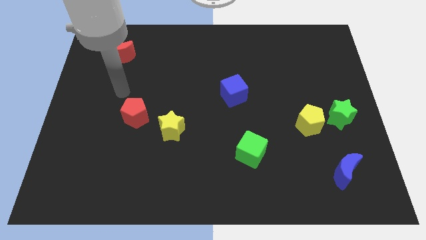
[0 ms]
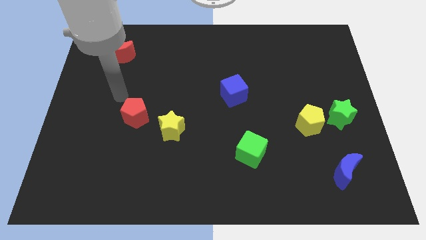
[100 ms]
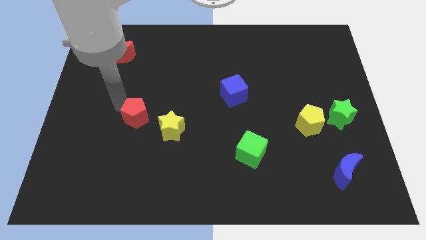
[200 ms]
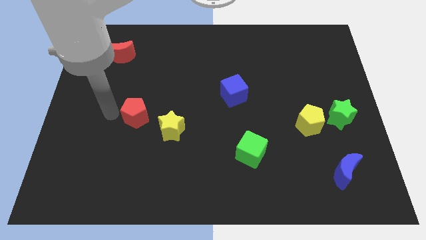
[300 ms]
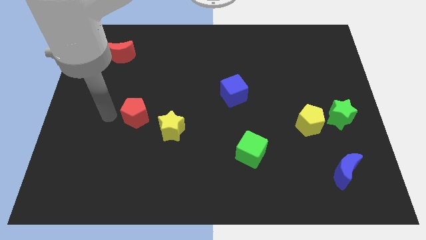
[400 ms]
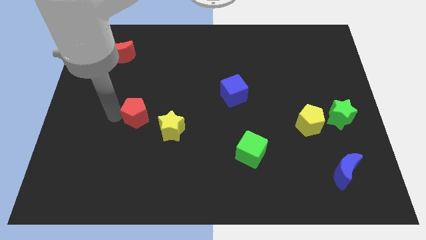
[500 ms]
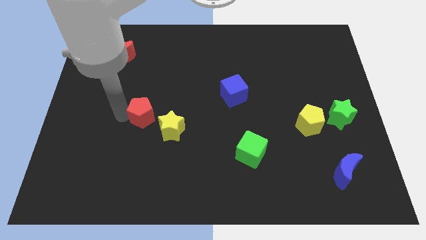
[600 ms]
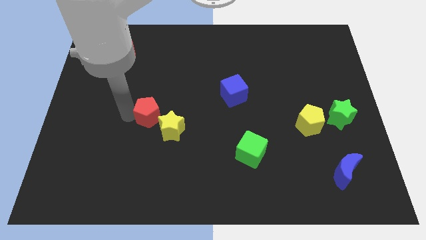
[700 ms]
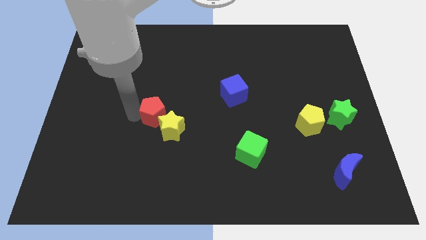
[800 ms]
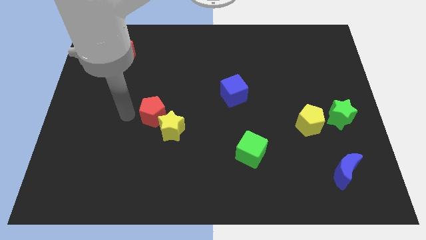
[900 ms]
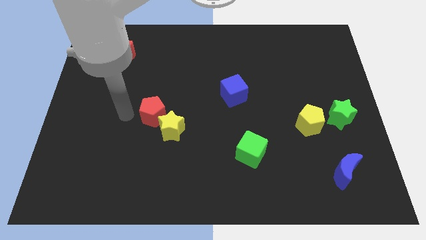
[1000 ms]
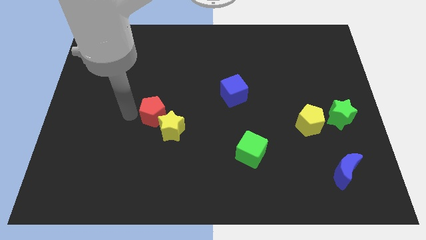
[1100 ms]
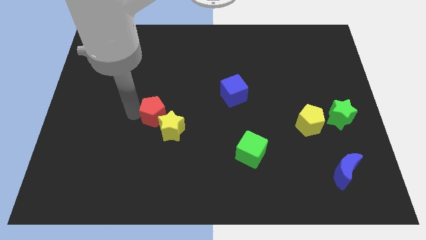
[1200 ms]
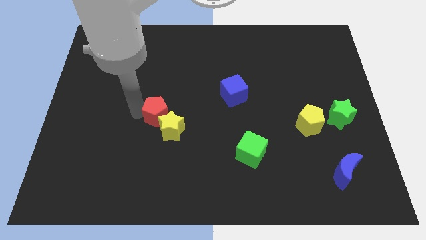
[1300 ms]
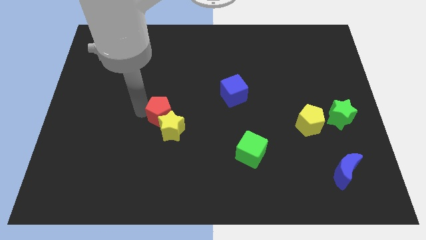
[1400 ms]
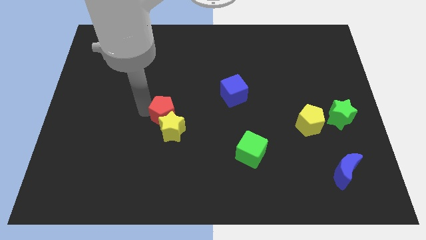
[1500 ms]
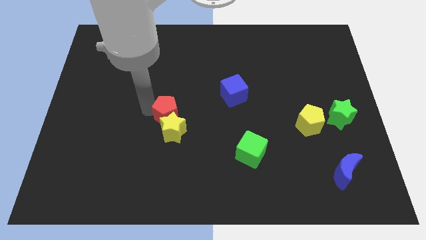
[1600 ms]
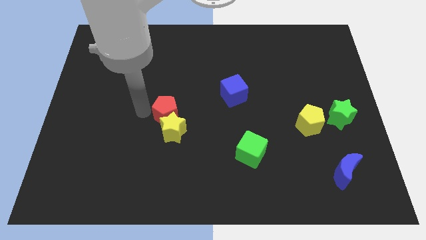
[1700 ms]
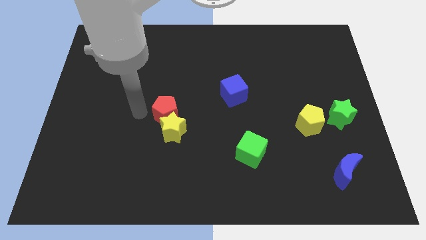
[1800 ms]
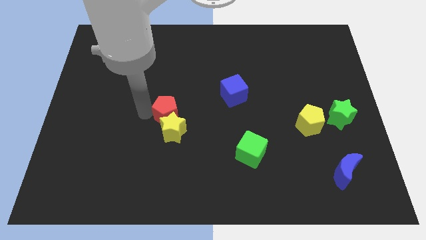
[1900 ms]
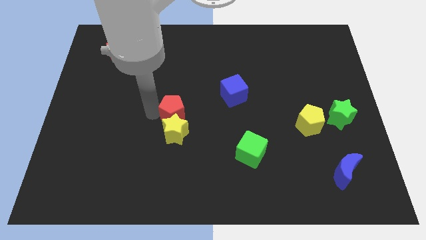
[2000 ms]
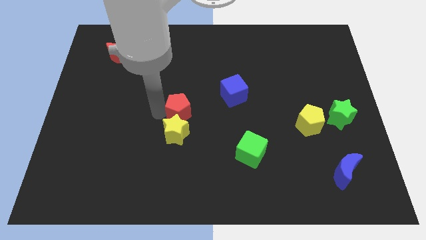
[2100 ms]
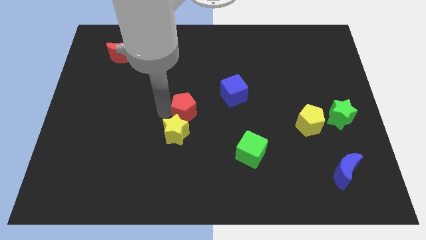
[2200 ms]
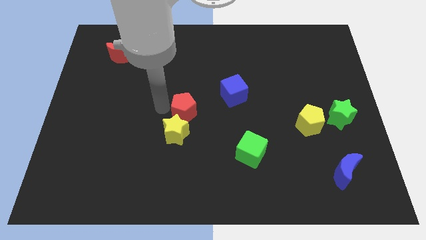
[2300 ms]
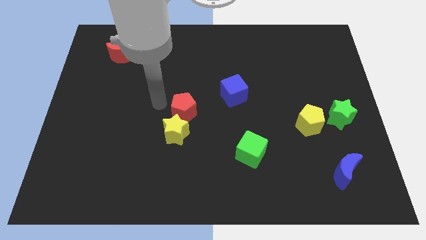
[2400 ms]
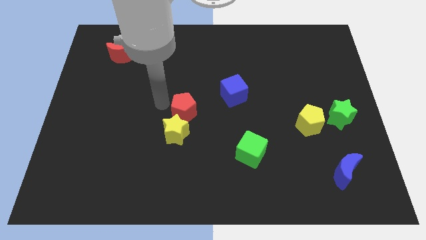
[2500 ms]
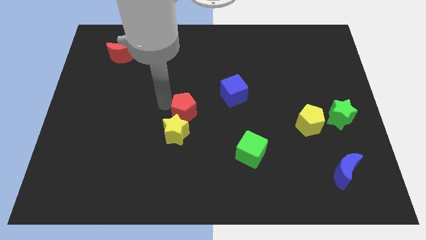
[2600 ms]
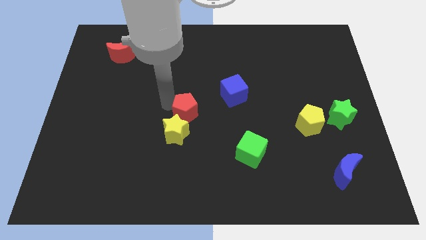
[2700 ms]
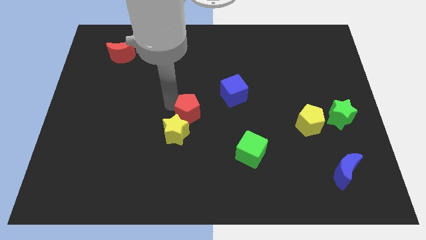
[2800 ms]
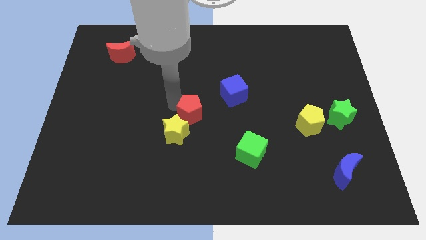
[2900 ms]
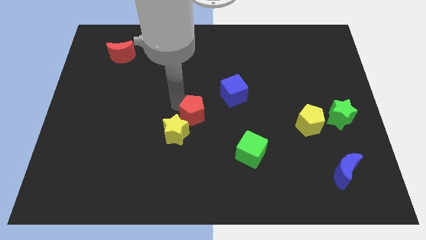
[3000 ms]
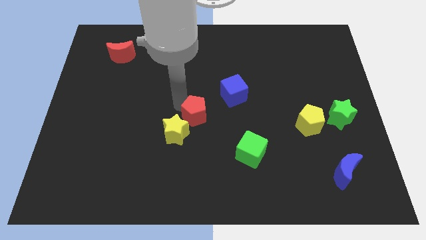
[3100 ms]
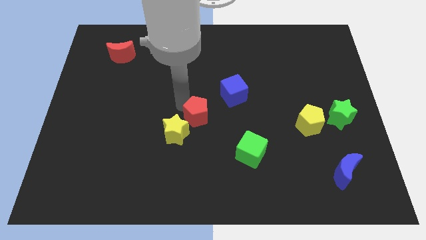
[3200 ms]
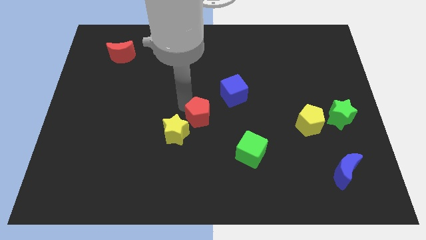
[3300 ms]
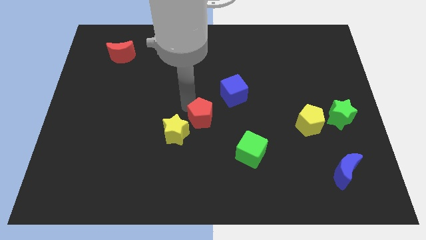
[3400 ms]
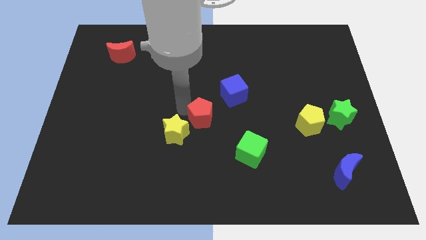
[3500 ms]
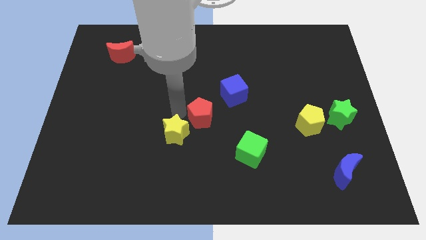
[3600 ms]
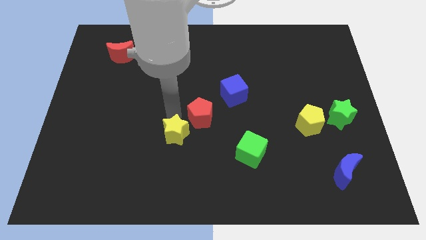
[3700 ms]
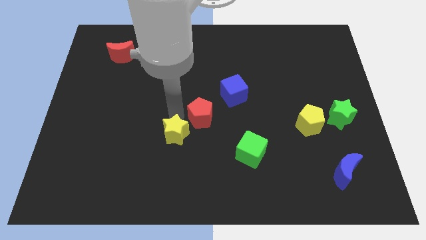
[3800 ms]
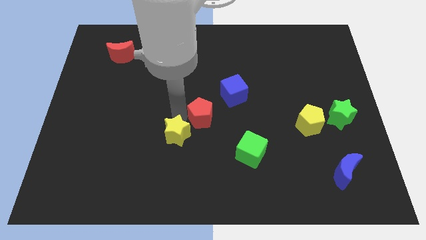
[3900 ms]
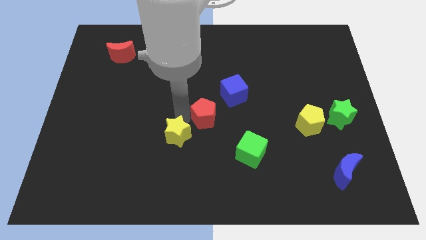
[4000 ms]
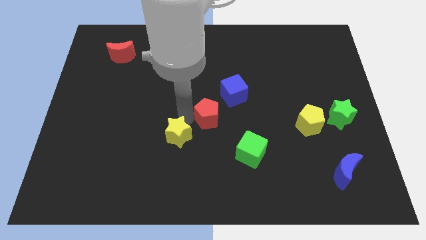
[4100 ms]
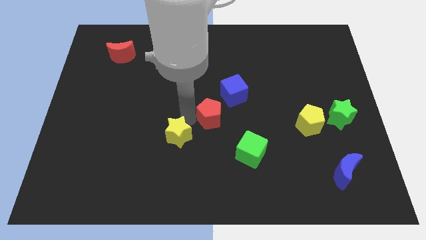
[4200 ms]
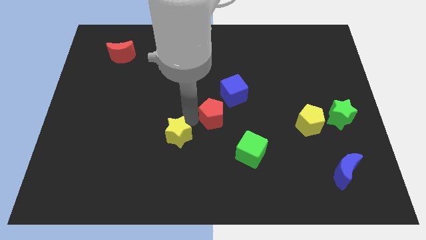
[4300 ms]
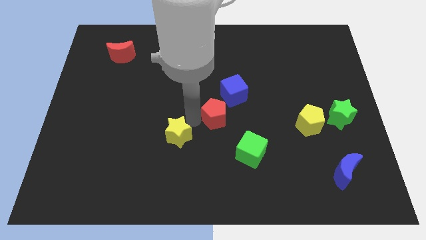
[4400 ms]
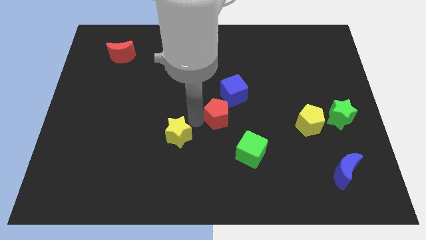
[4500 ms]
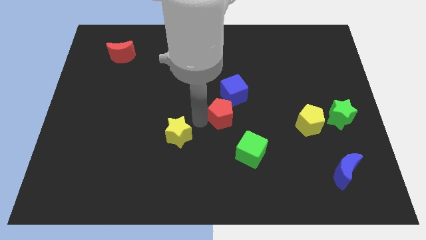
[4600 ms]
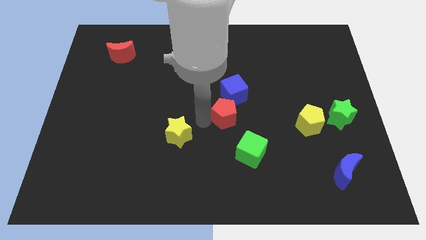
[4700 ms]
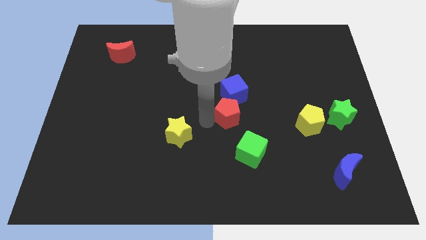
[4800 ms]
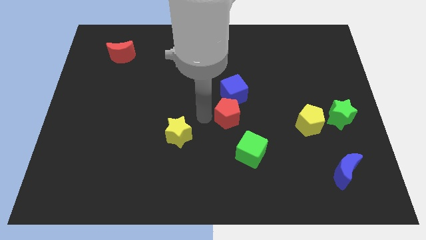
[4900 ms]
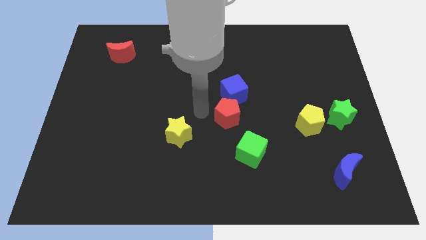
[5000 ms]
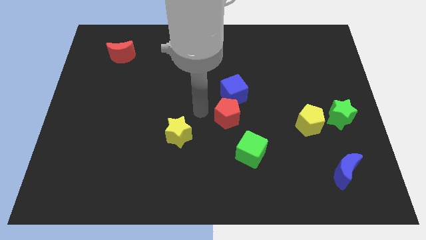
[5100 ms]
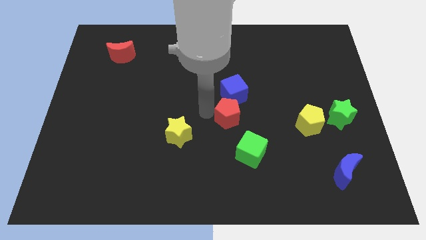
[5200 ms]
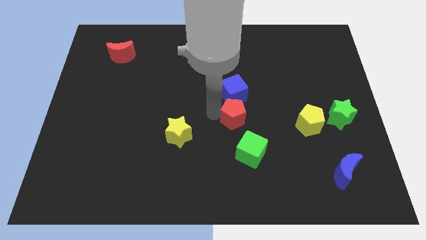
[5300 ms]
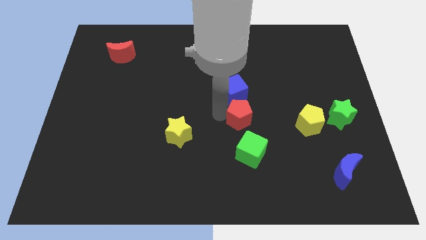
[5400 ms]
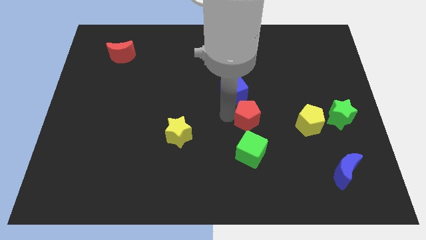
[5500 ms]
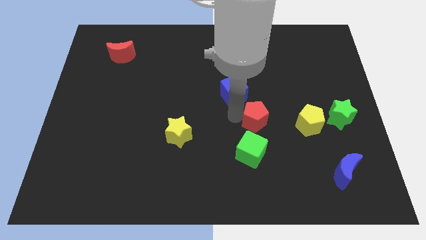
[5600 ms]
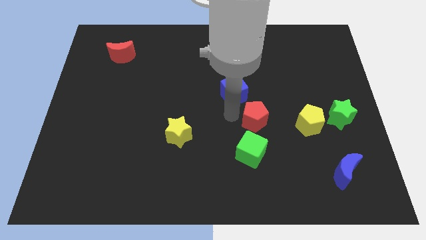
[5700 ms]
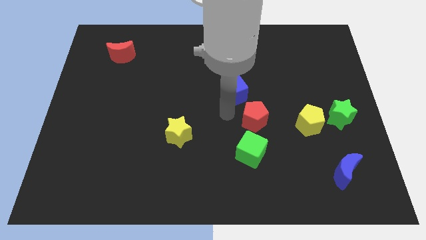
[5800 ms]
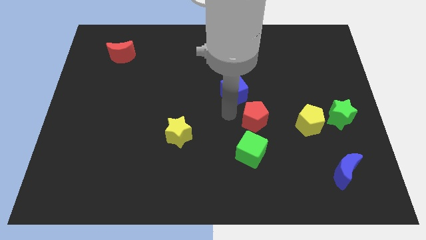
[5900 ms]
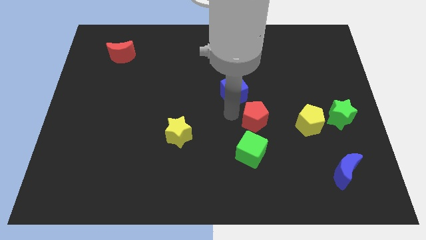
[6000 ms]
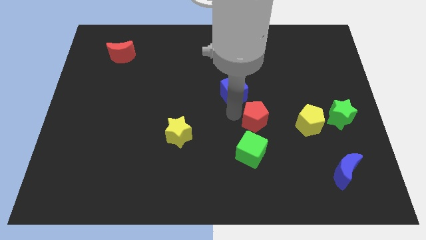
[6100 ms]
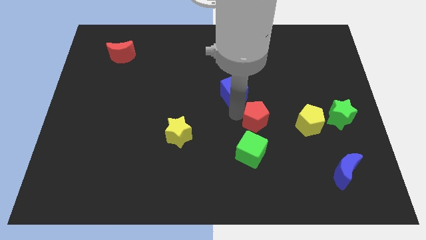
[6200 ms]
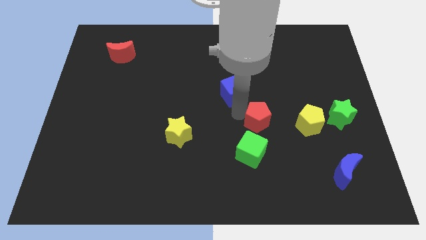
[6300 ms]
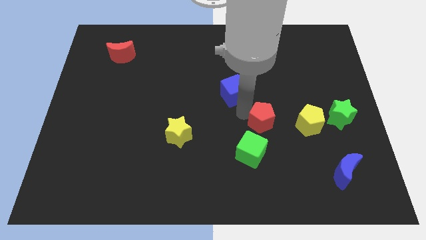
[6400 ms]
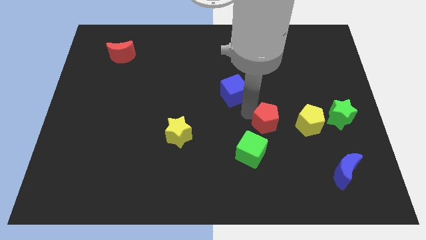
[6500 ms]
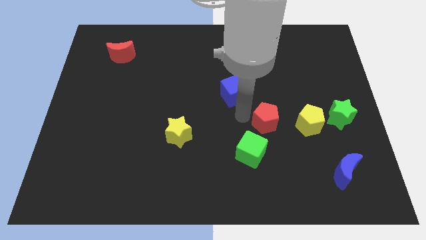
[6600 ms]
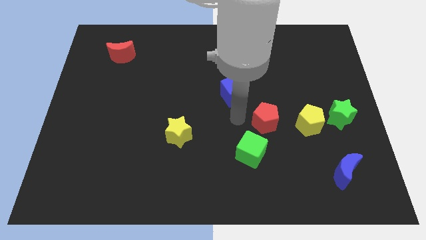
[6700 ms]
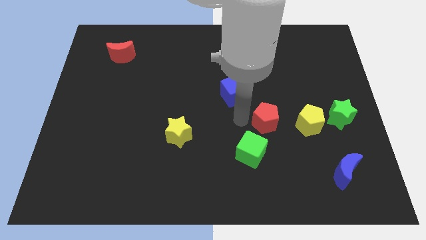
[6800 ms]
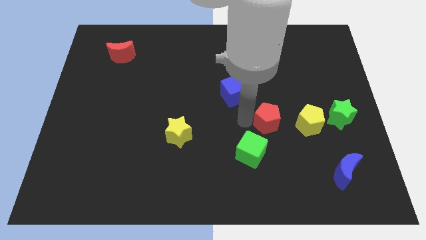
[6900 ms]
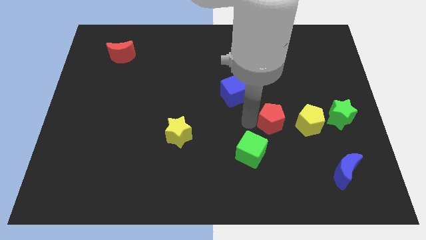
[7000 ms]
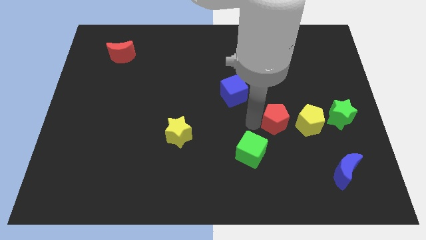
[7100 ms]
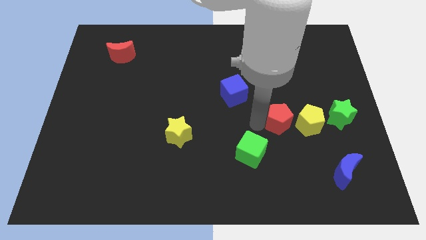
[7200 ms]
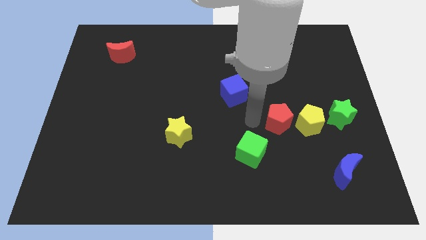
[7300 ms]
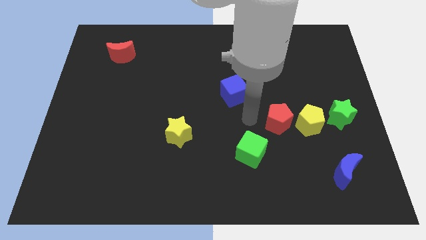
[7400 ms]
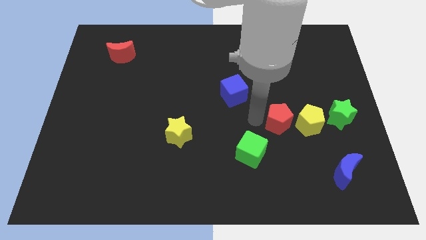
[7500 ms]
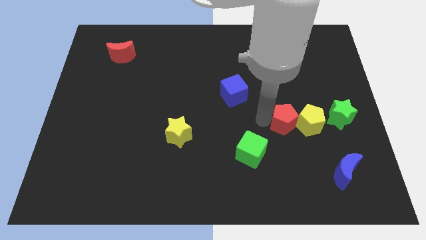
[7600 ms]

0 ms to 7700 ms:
put the red pentagon to the yellow pentagon
